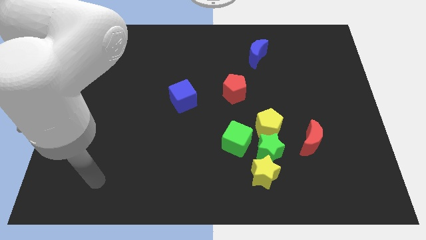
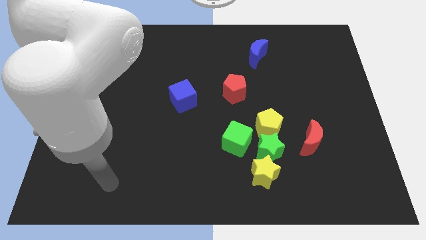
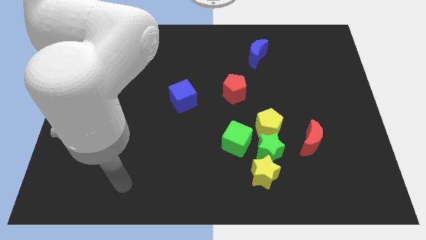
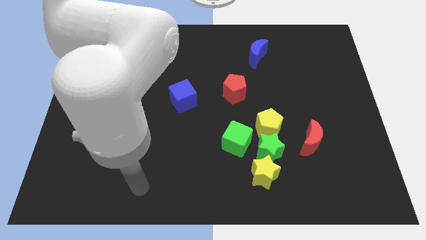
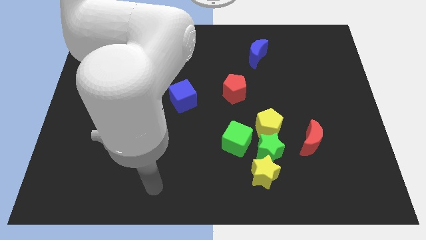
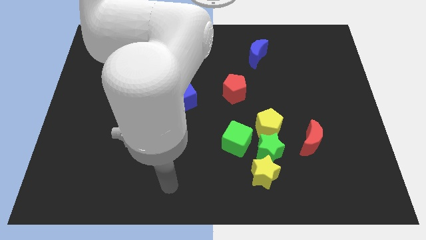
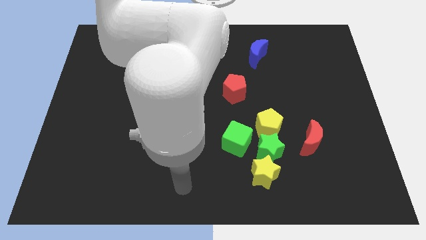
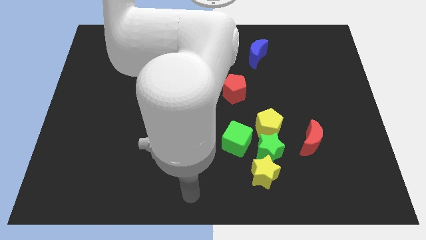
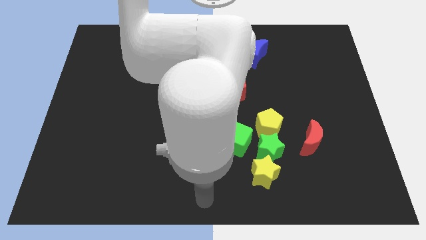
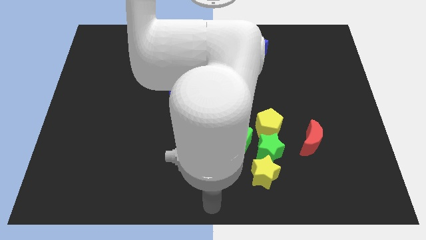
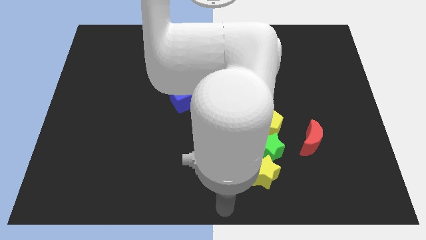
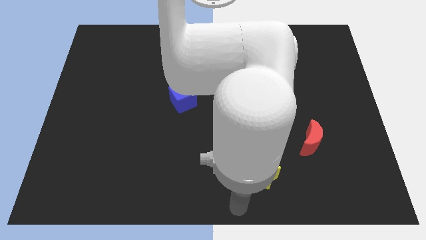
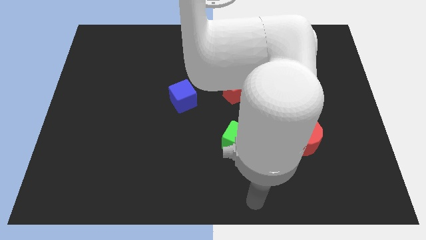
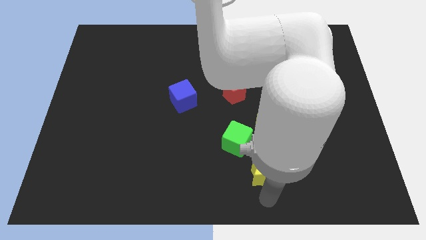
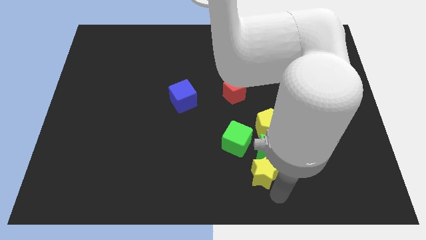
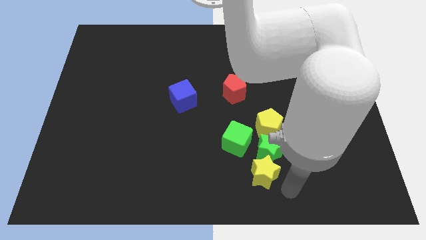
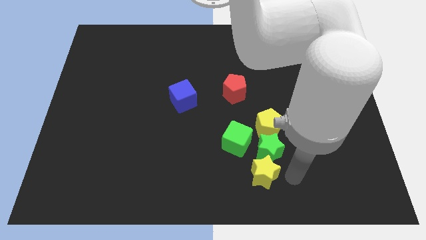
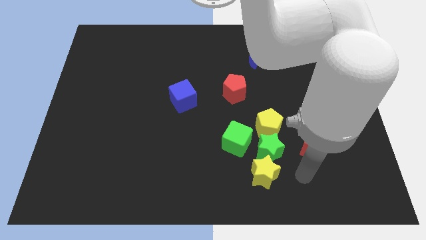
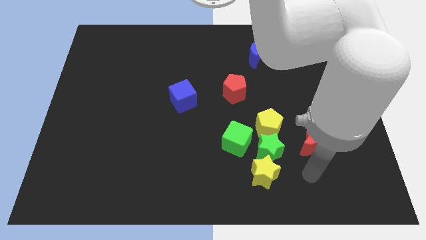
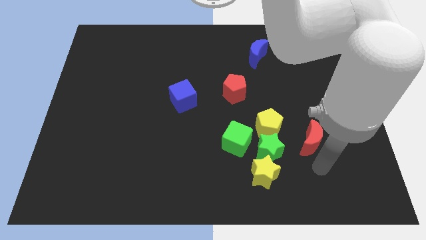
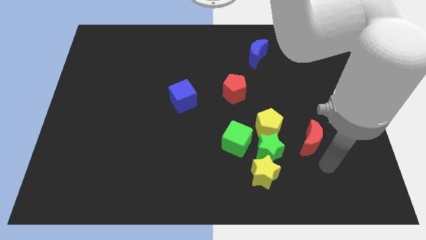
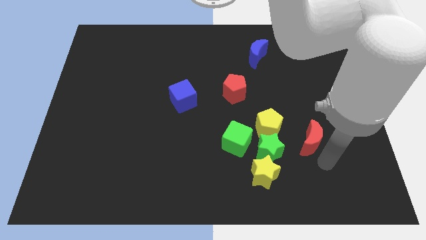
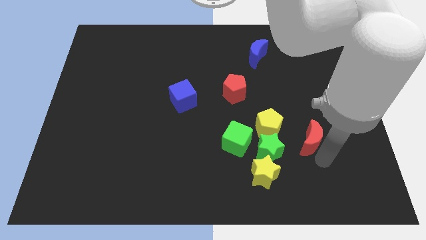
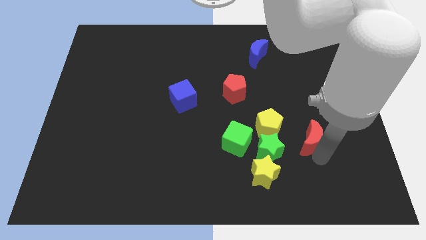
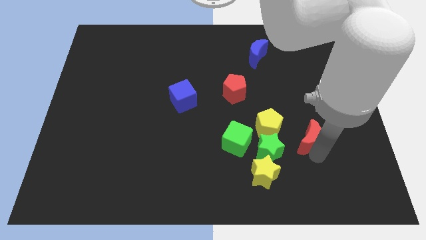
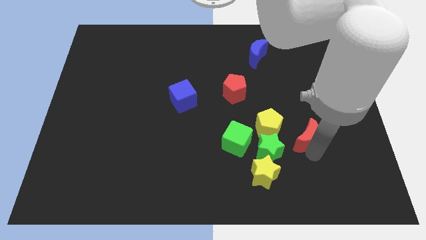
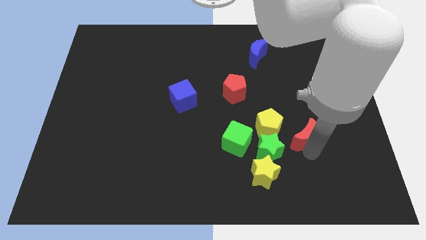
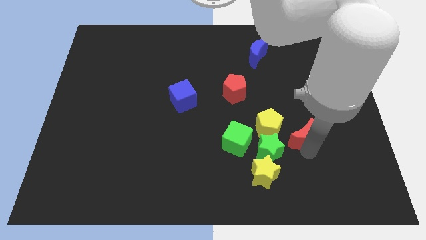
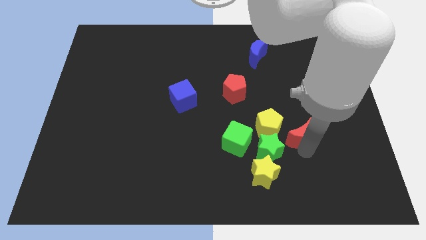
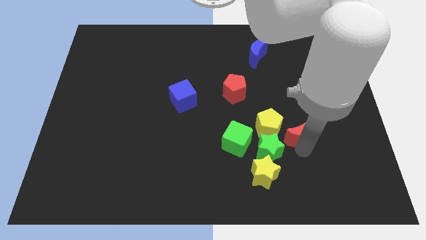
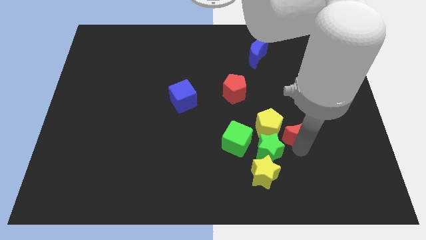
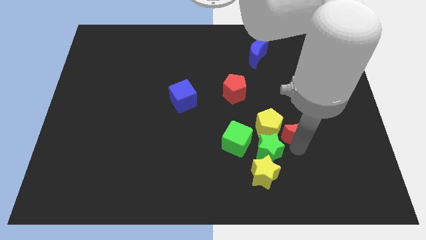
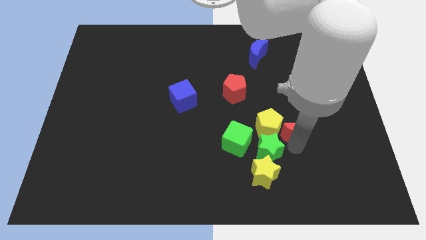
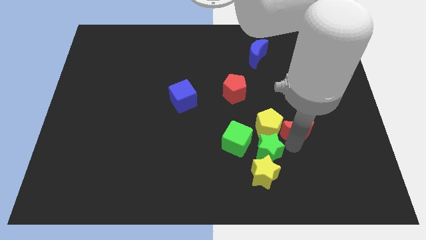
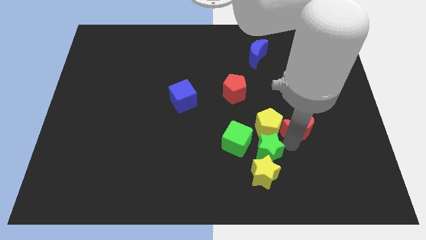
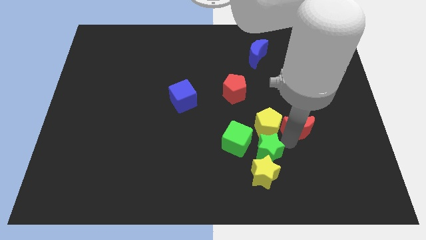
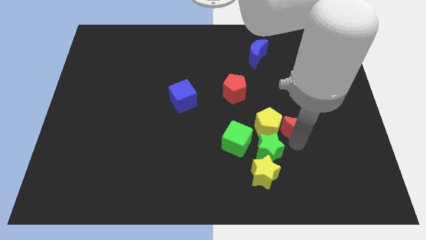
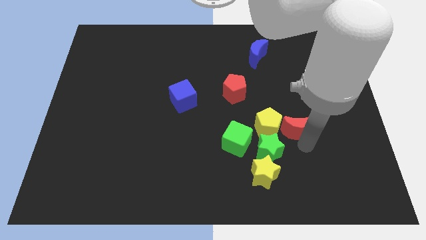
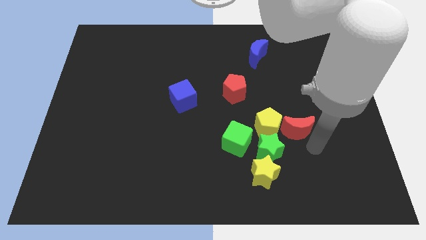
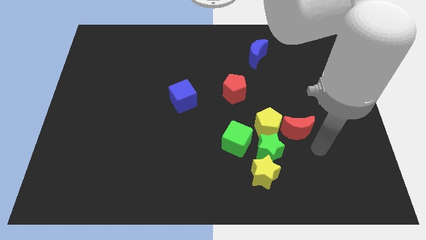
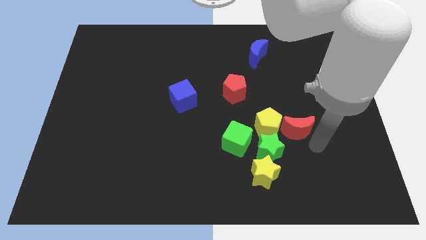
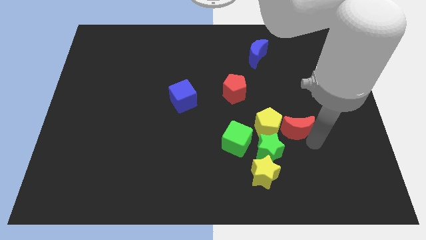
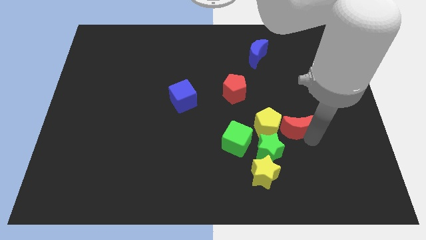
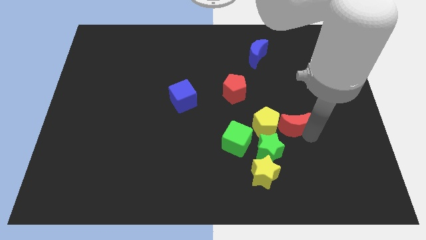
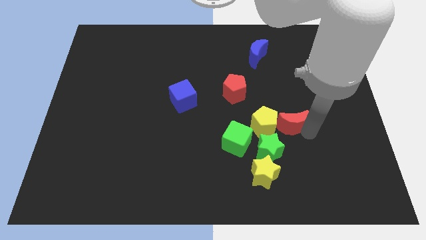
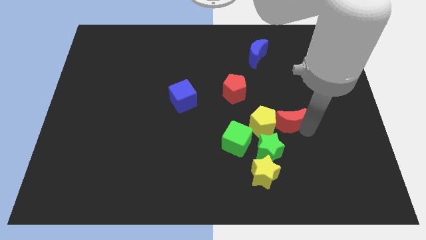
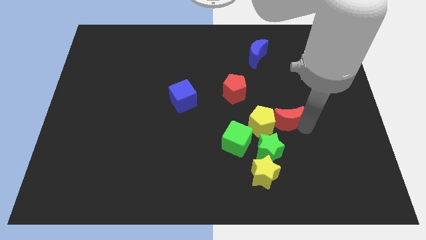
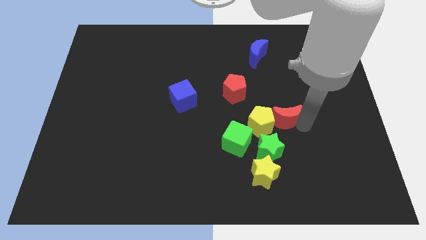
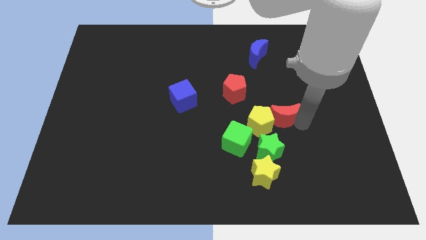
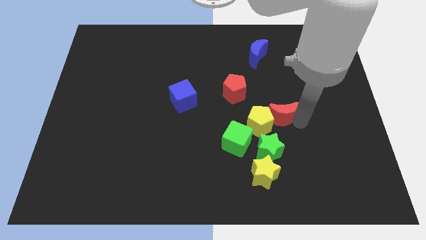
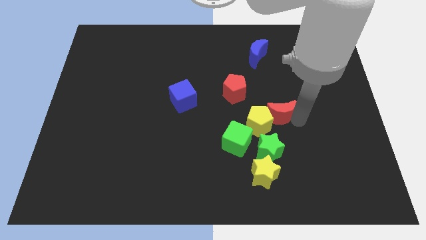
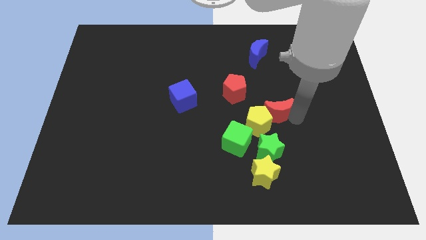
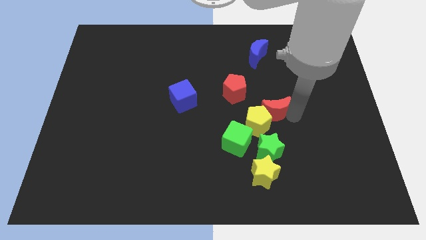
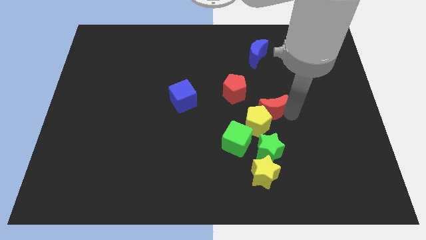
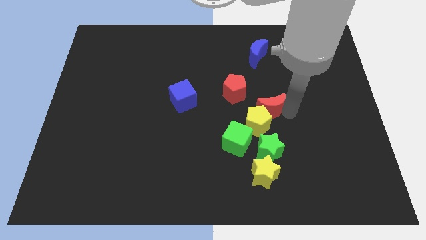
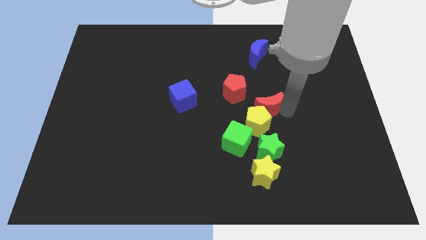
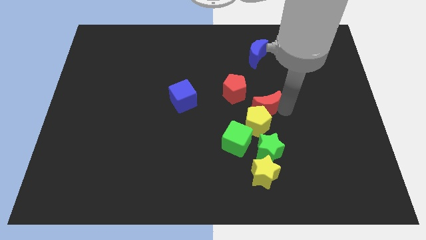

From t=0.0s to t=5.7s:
push the red moon to the center of the board

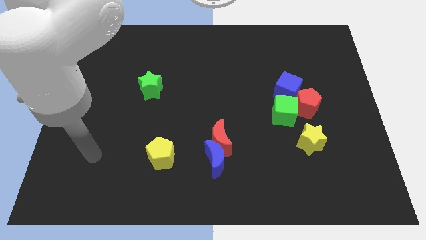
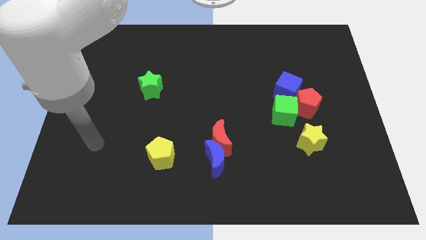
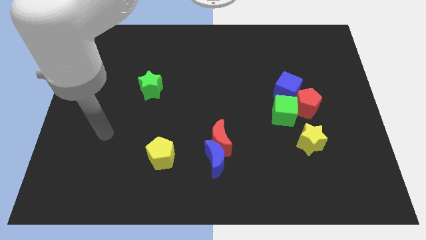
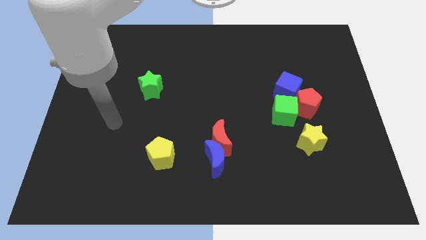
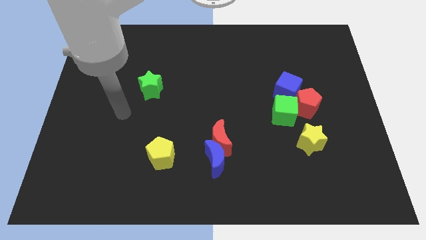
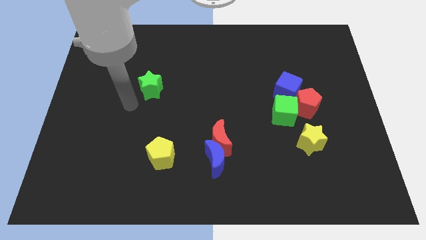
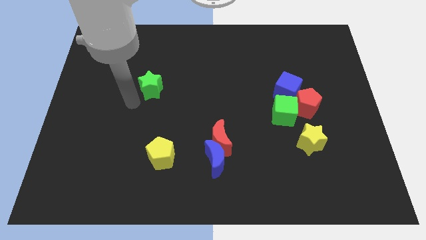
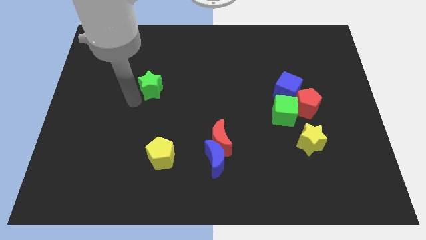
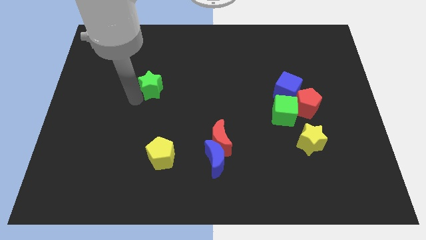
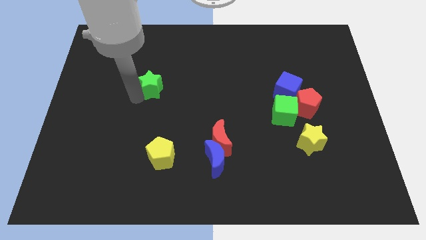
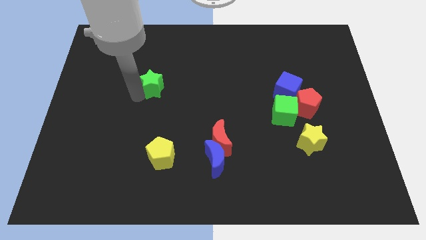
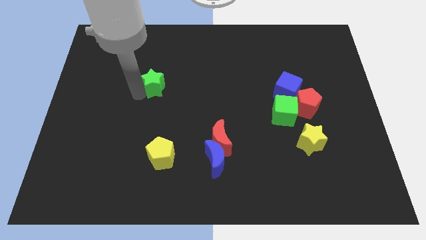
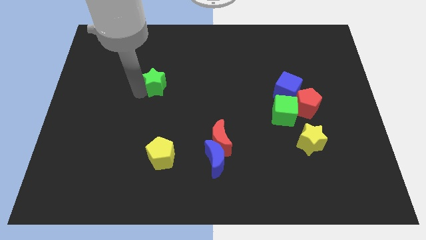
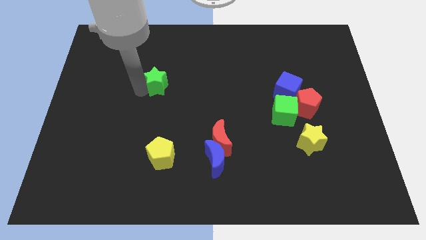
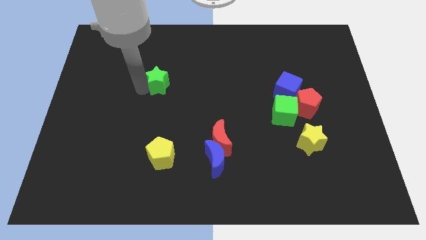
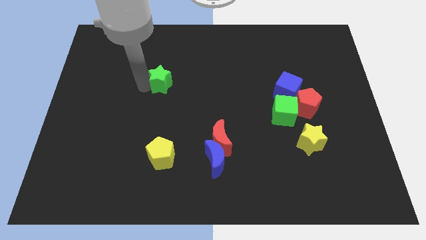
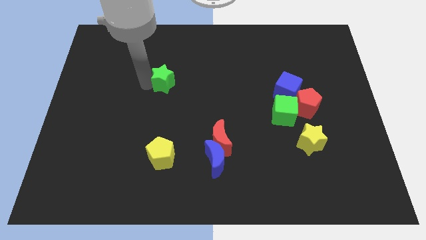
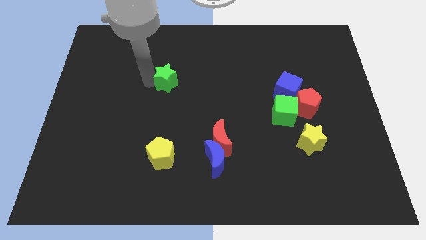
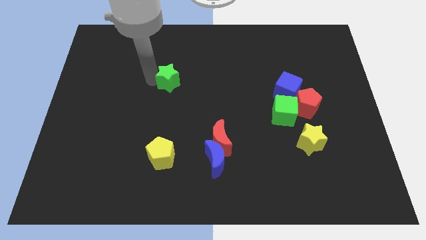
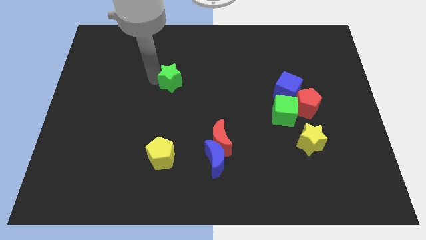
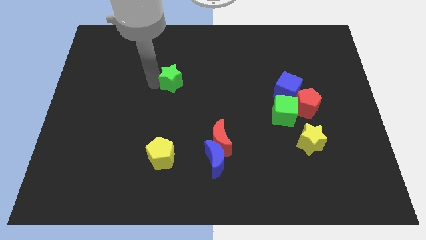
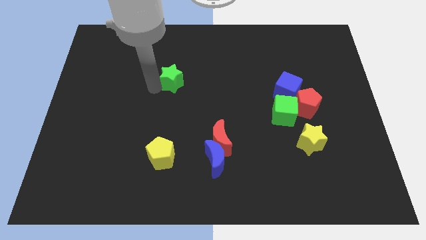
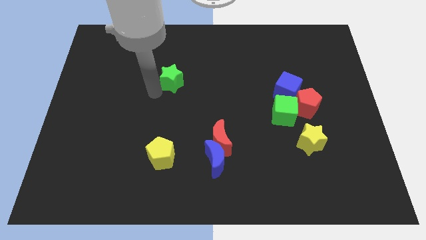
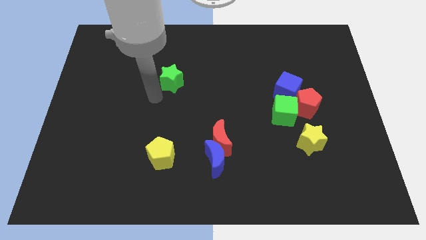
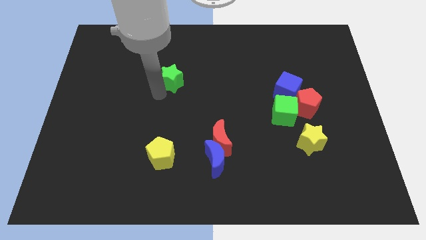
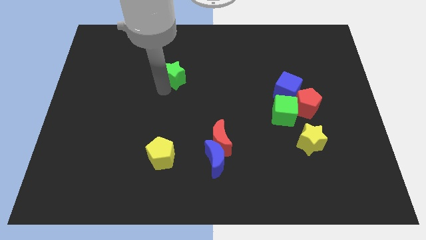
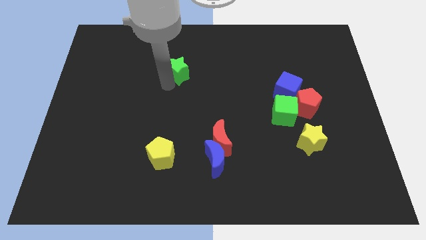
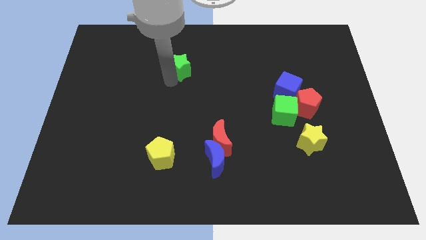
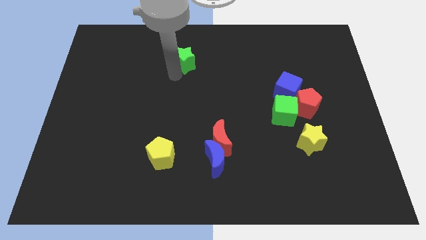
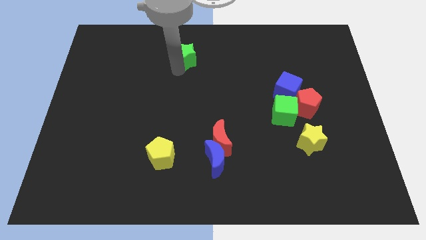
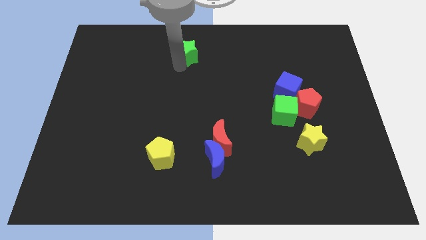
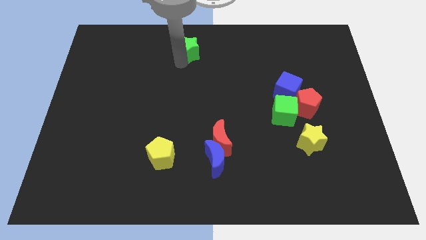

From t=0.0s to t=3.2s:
push the green star to the towards your base
